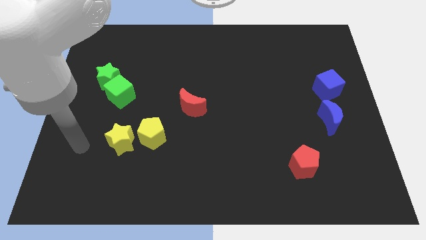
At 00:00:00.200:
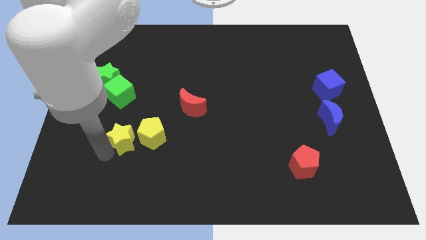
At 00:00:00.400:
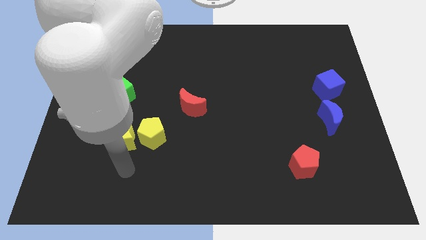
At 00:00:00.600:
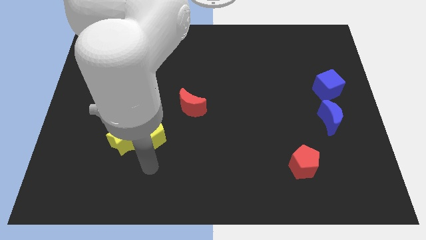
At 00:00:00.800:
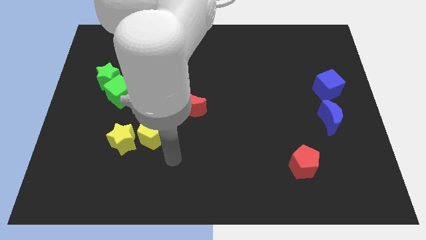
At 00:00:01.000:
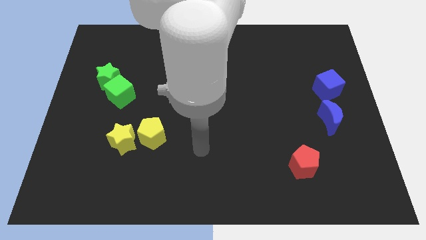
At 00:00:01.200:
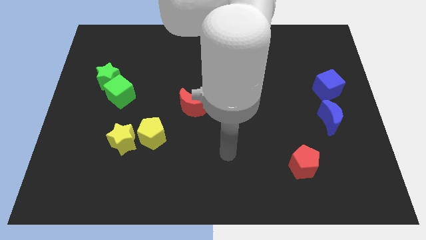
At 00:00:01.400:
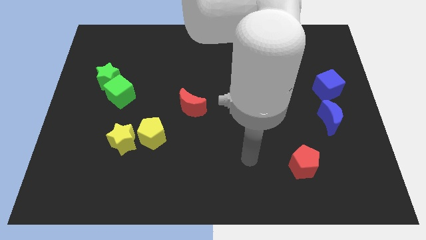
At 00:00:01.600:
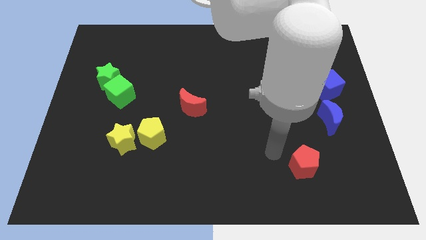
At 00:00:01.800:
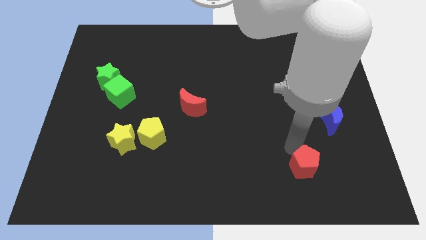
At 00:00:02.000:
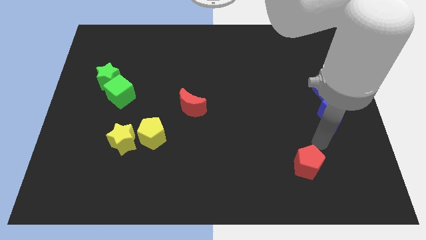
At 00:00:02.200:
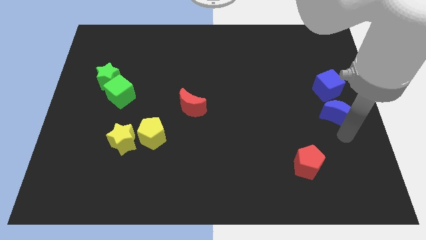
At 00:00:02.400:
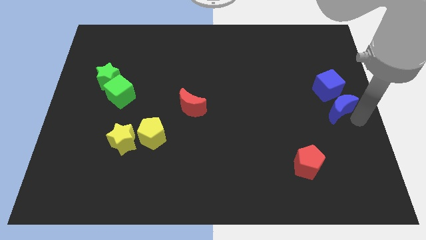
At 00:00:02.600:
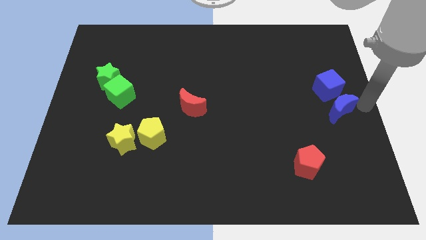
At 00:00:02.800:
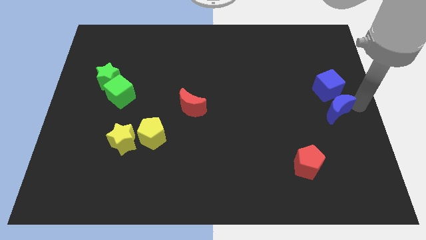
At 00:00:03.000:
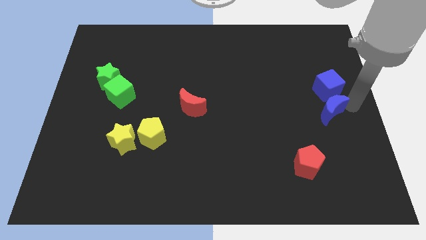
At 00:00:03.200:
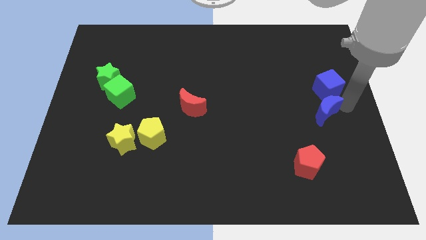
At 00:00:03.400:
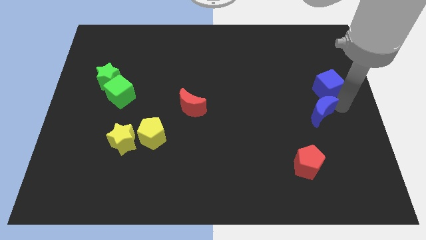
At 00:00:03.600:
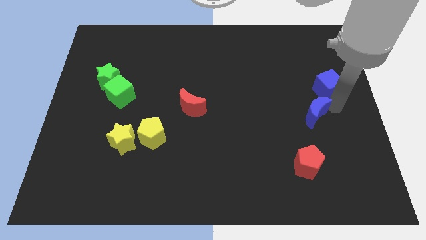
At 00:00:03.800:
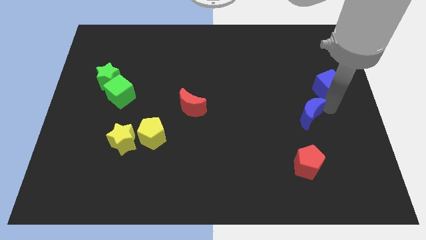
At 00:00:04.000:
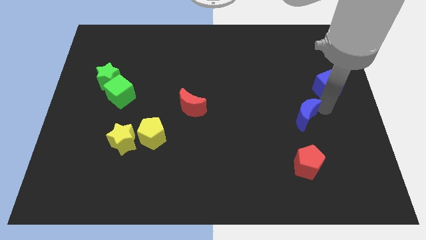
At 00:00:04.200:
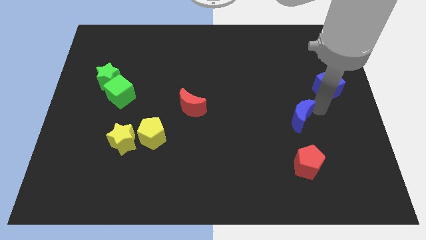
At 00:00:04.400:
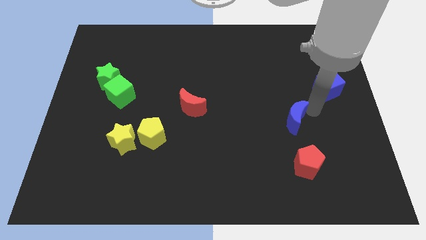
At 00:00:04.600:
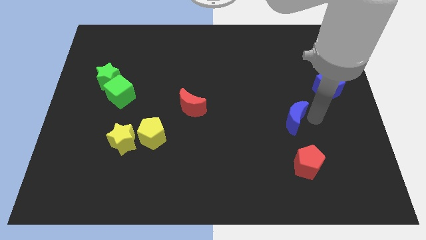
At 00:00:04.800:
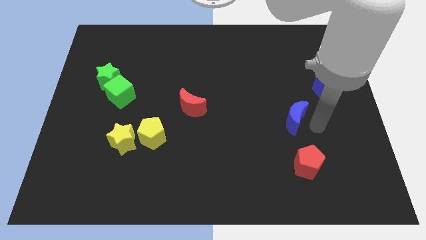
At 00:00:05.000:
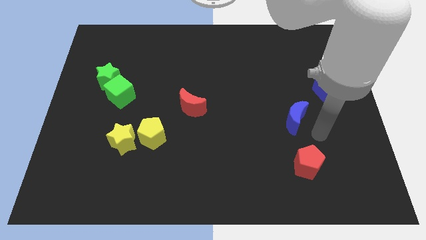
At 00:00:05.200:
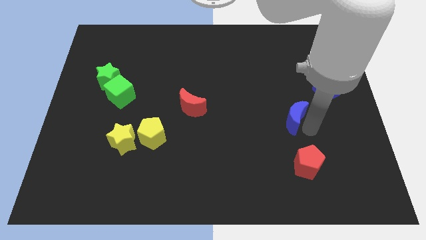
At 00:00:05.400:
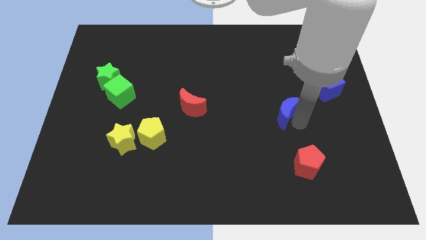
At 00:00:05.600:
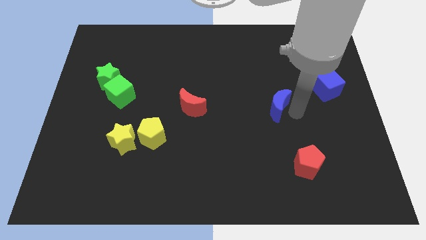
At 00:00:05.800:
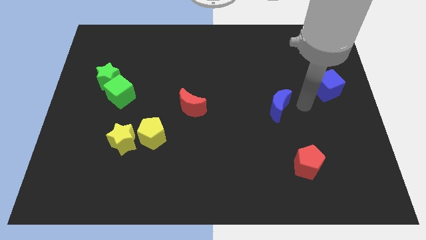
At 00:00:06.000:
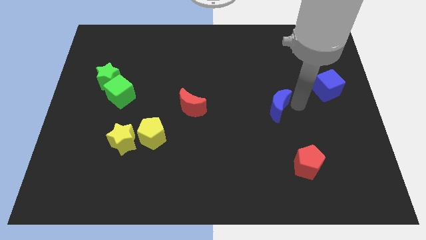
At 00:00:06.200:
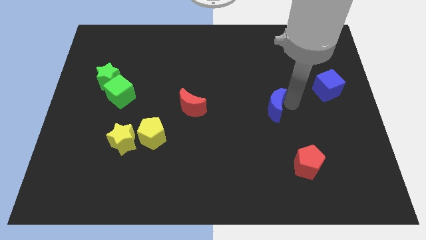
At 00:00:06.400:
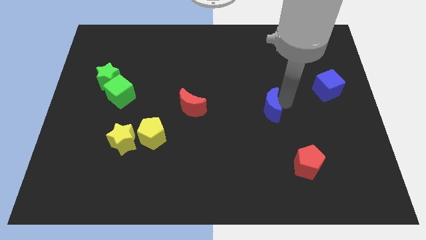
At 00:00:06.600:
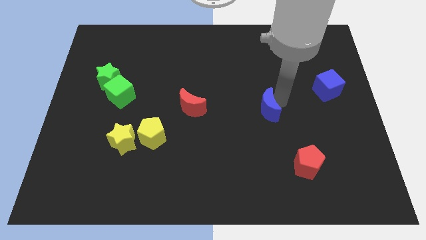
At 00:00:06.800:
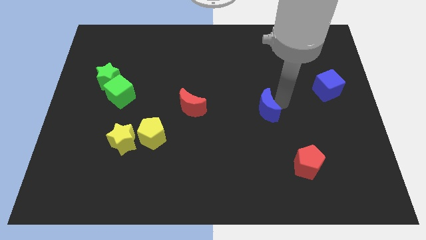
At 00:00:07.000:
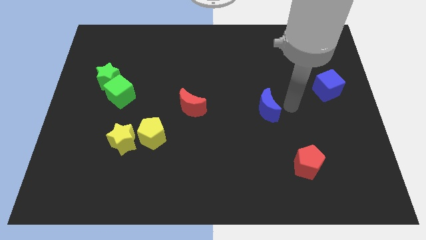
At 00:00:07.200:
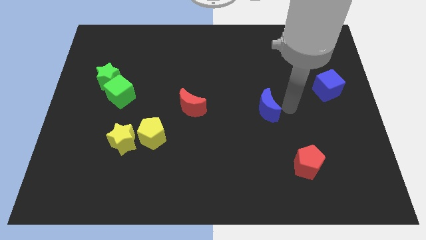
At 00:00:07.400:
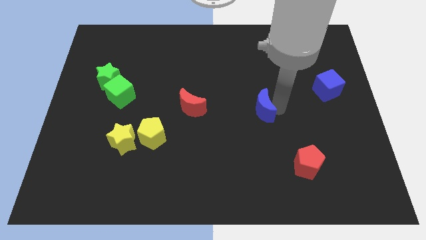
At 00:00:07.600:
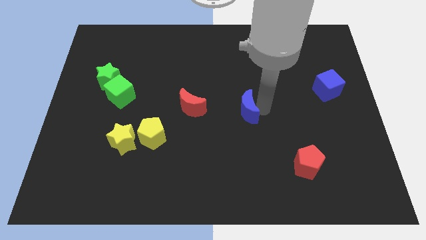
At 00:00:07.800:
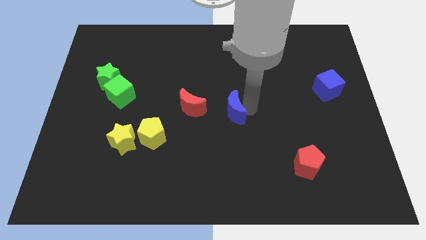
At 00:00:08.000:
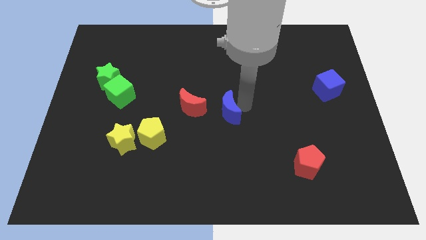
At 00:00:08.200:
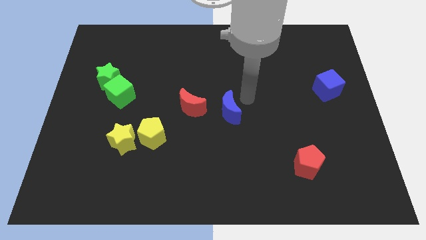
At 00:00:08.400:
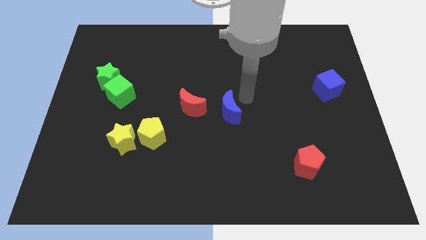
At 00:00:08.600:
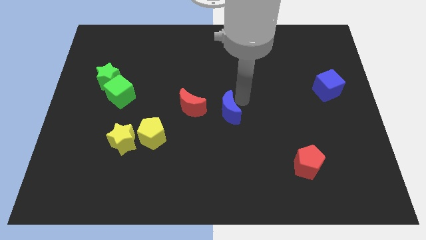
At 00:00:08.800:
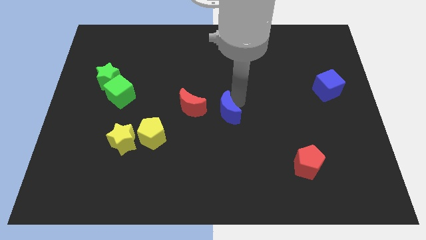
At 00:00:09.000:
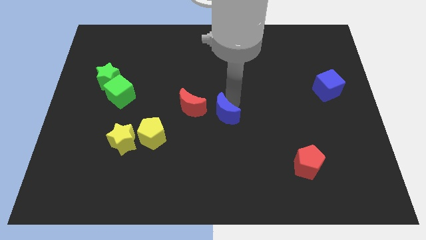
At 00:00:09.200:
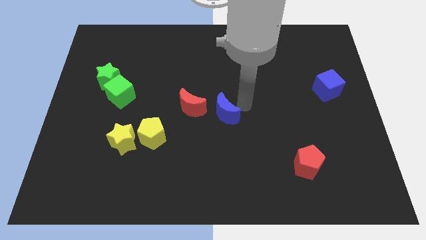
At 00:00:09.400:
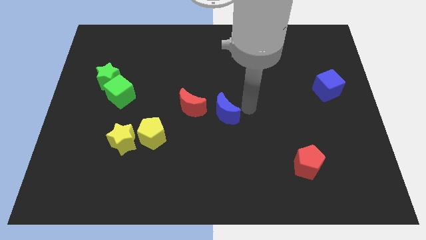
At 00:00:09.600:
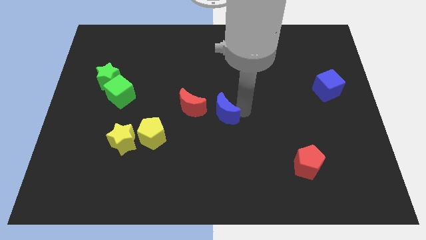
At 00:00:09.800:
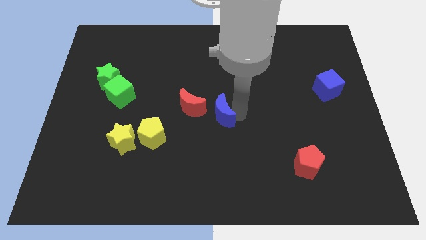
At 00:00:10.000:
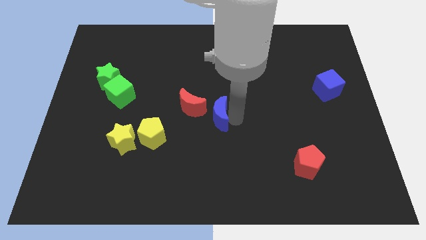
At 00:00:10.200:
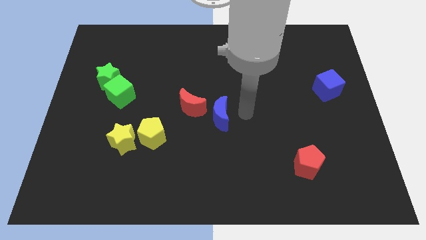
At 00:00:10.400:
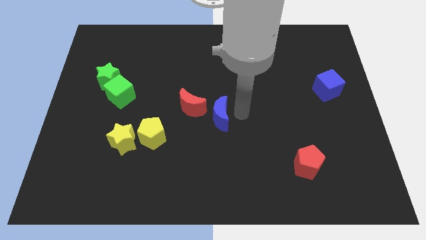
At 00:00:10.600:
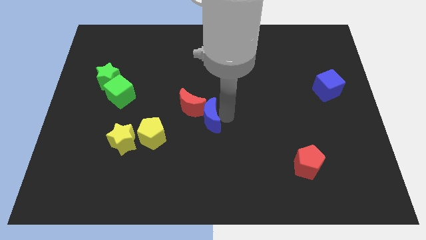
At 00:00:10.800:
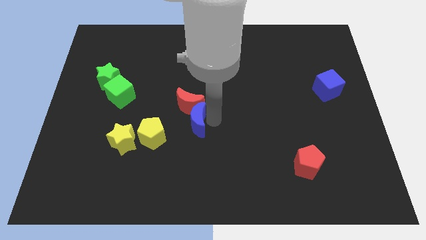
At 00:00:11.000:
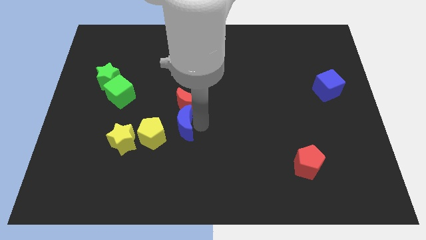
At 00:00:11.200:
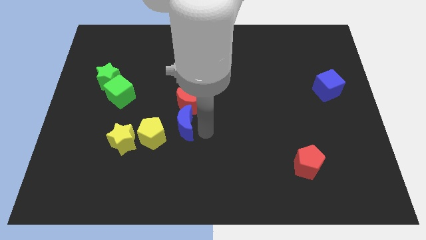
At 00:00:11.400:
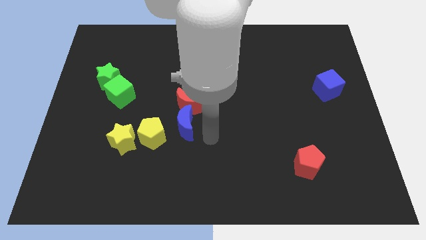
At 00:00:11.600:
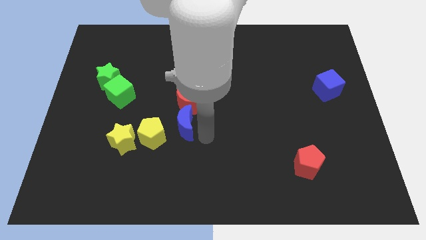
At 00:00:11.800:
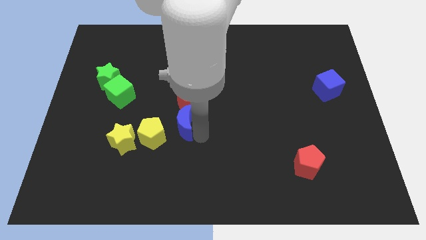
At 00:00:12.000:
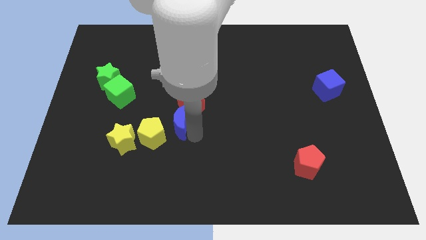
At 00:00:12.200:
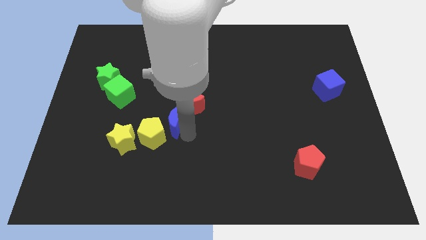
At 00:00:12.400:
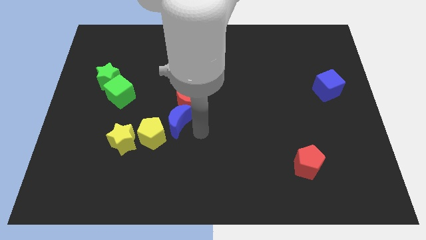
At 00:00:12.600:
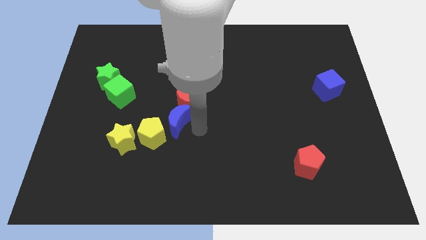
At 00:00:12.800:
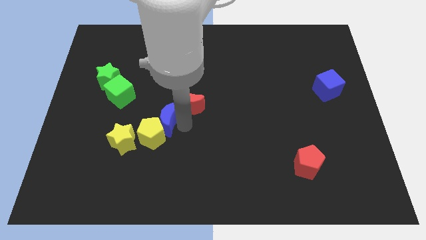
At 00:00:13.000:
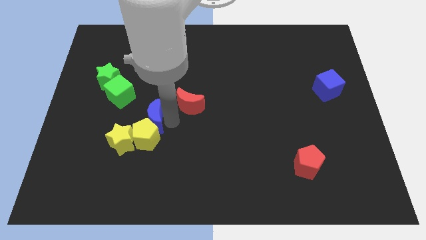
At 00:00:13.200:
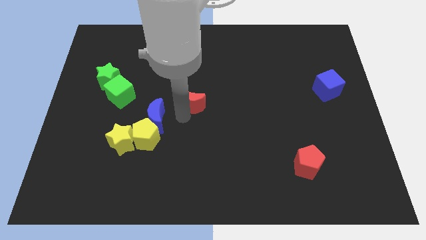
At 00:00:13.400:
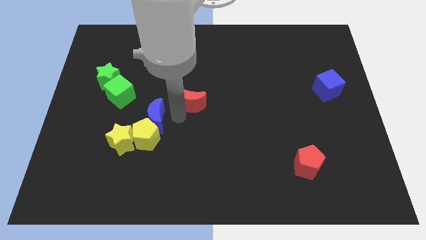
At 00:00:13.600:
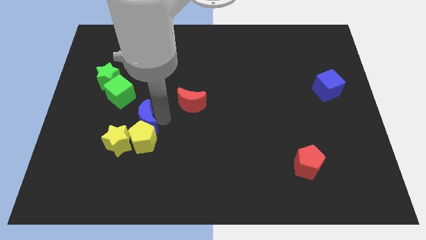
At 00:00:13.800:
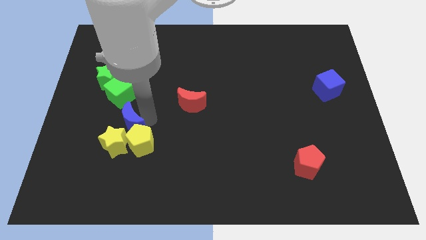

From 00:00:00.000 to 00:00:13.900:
move the blue moon next to the yellow star

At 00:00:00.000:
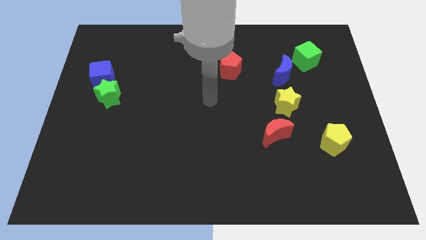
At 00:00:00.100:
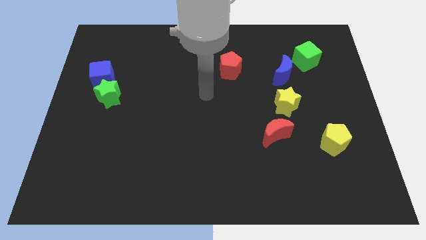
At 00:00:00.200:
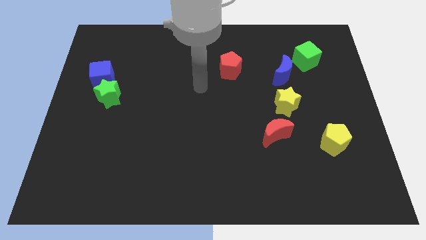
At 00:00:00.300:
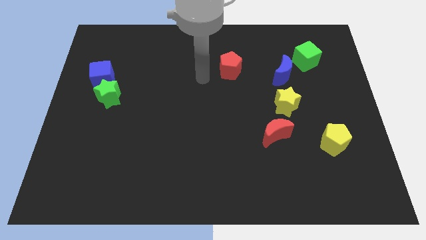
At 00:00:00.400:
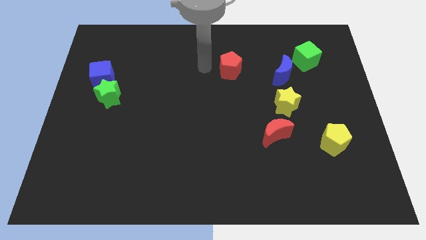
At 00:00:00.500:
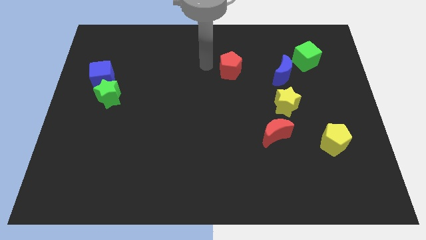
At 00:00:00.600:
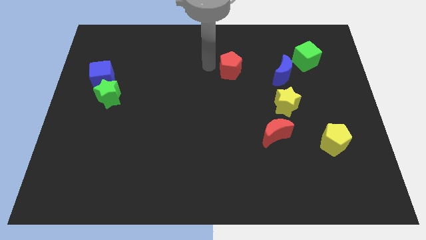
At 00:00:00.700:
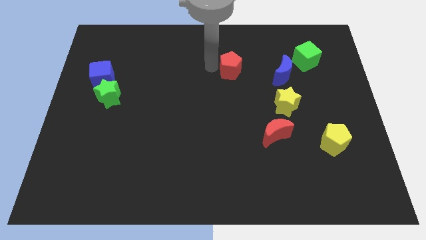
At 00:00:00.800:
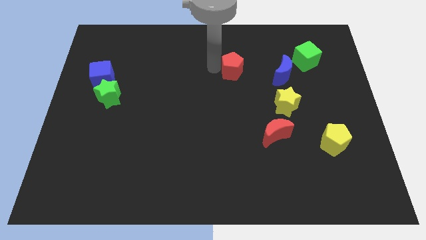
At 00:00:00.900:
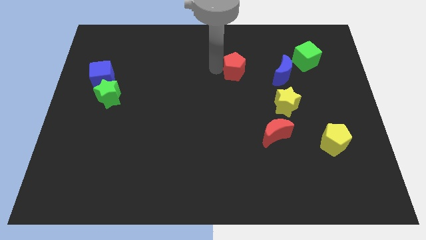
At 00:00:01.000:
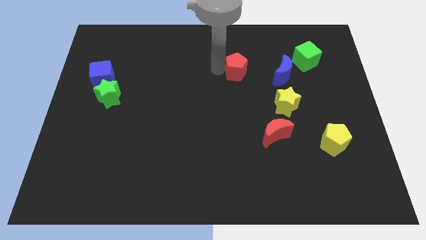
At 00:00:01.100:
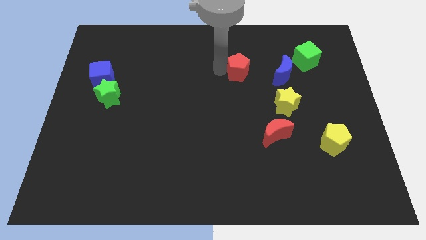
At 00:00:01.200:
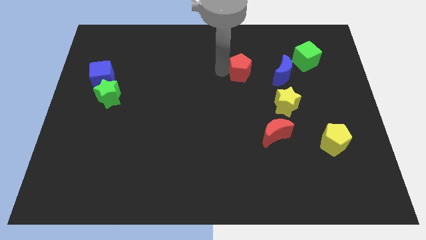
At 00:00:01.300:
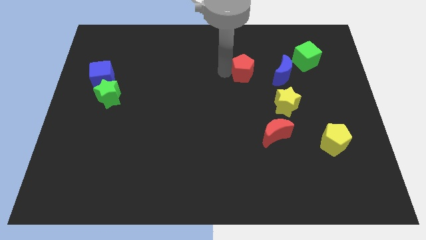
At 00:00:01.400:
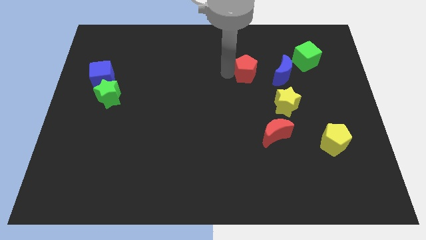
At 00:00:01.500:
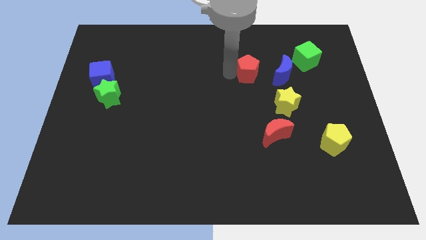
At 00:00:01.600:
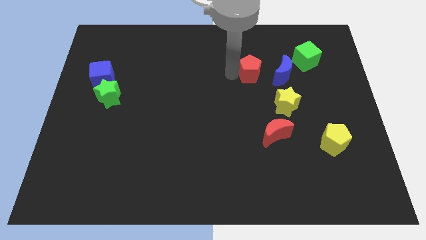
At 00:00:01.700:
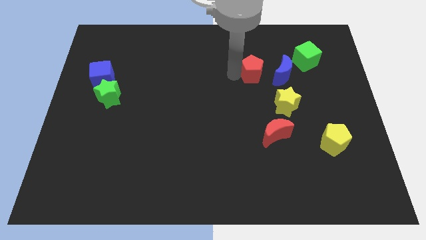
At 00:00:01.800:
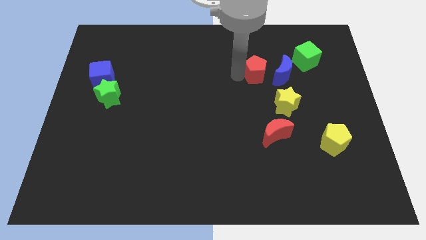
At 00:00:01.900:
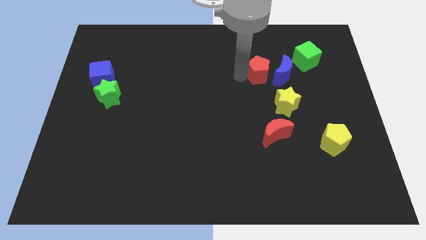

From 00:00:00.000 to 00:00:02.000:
push the red pentagon towards the blue moon
